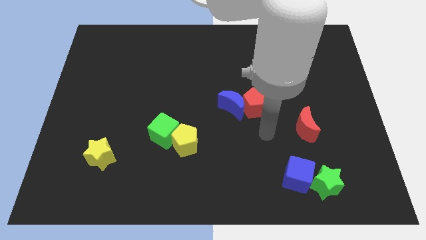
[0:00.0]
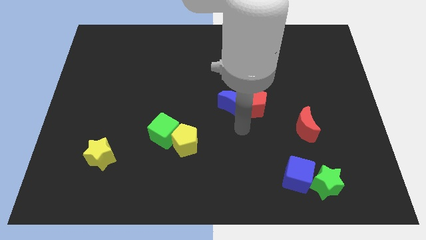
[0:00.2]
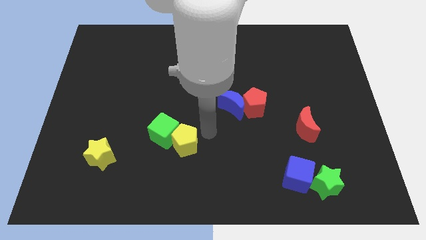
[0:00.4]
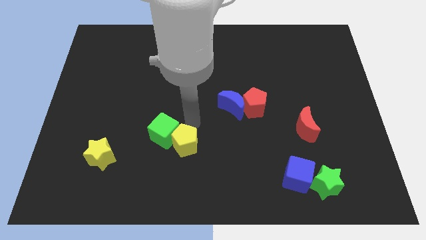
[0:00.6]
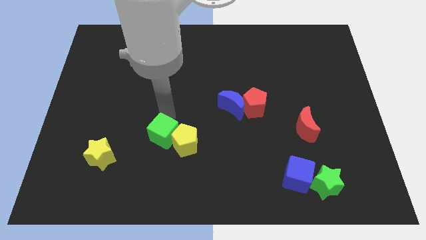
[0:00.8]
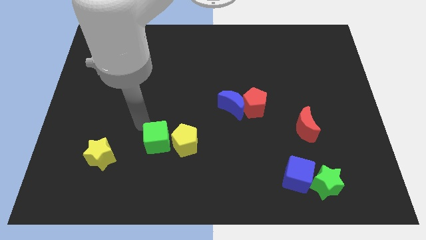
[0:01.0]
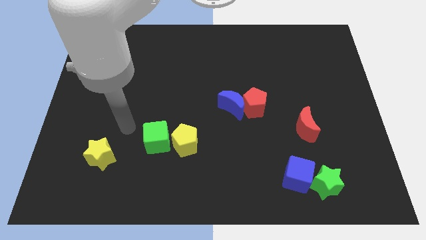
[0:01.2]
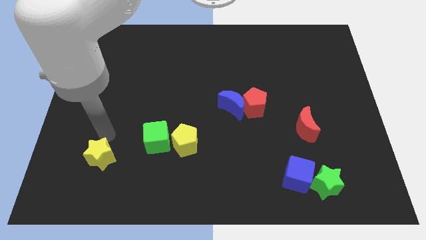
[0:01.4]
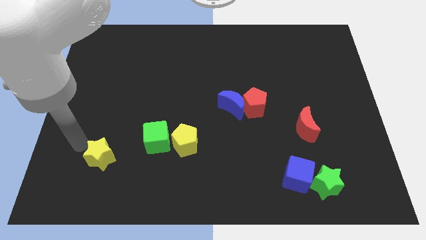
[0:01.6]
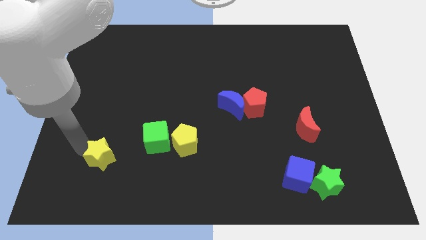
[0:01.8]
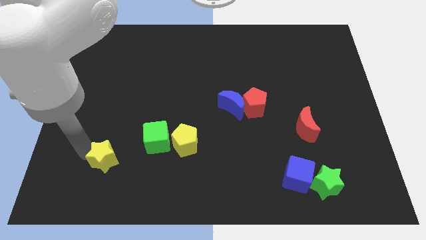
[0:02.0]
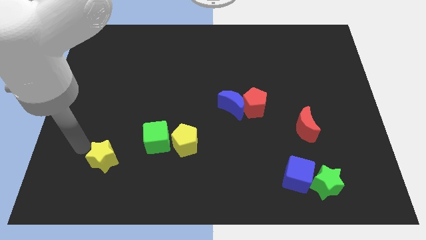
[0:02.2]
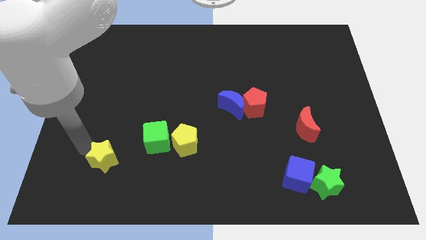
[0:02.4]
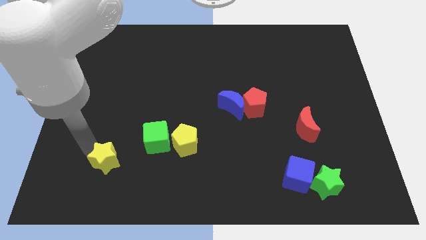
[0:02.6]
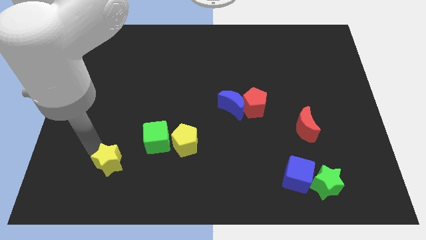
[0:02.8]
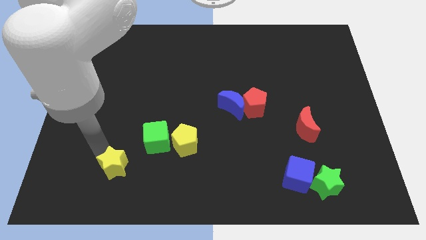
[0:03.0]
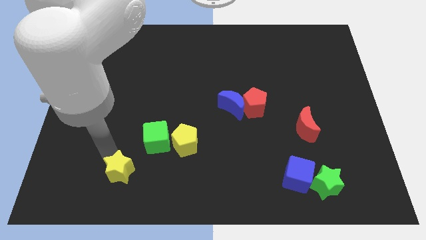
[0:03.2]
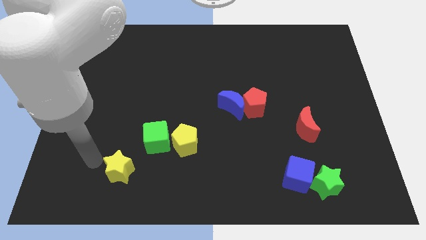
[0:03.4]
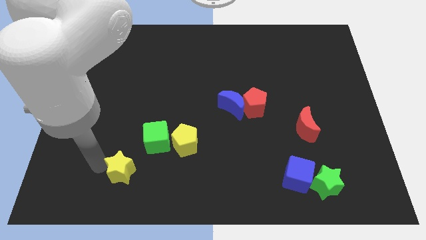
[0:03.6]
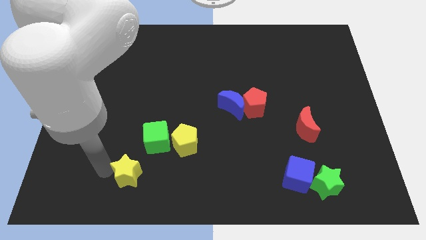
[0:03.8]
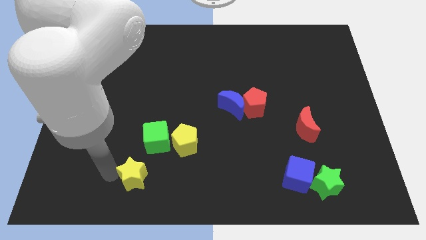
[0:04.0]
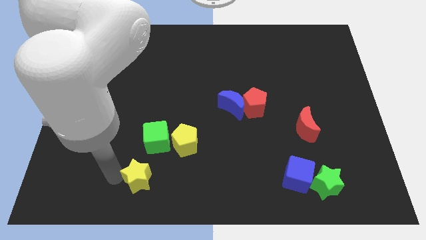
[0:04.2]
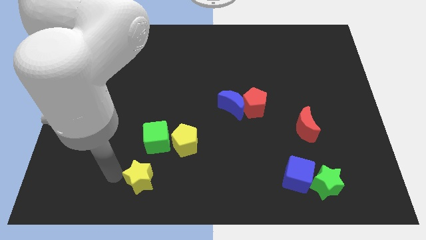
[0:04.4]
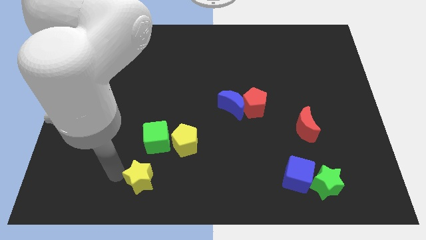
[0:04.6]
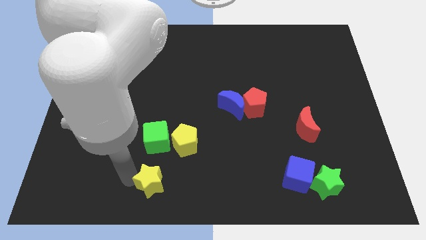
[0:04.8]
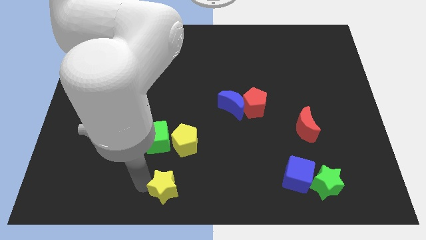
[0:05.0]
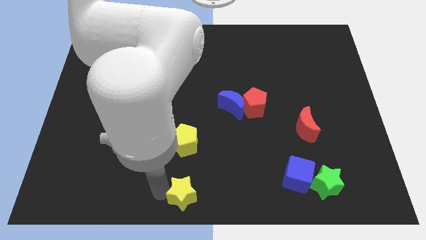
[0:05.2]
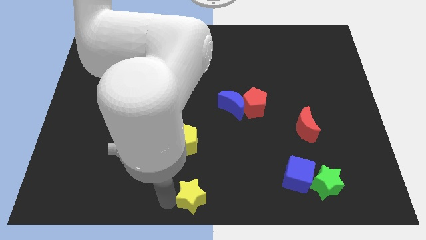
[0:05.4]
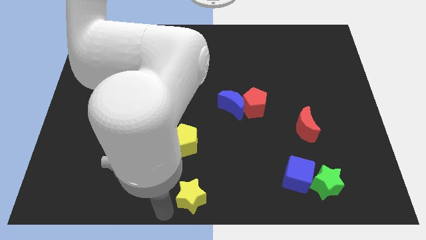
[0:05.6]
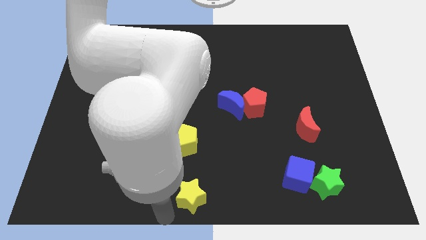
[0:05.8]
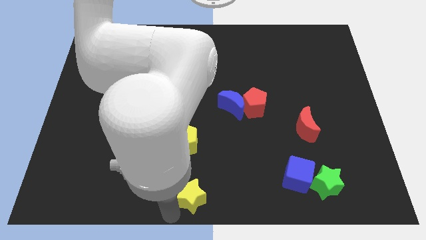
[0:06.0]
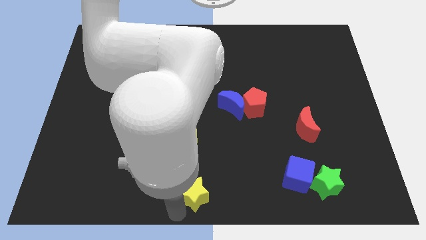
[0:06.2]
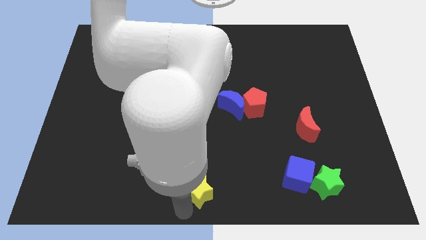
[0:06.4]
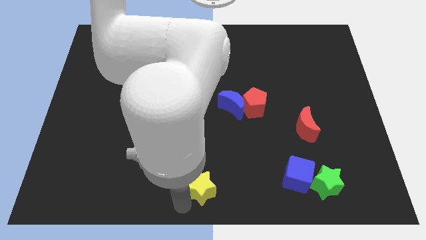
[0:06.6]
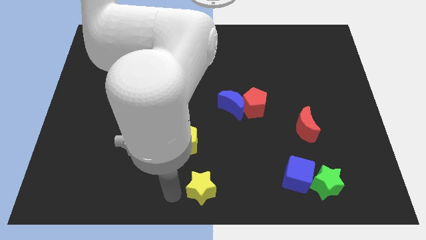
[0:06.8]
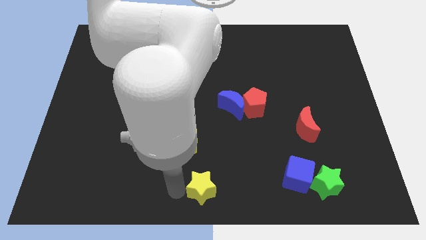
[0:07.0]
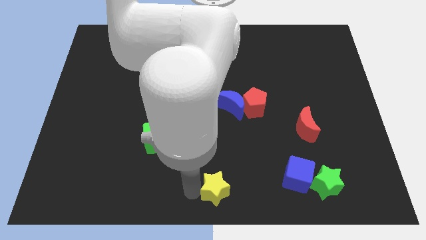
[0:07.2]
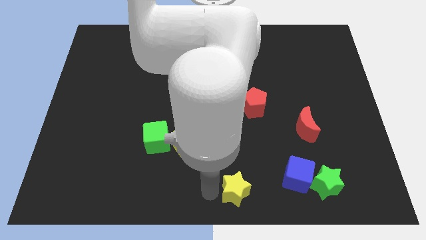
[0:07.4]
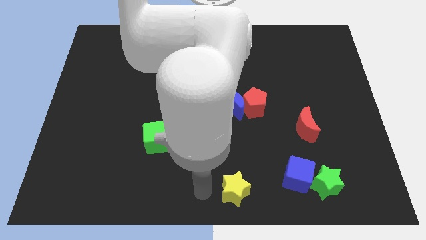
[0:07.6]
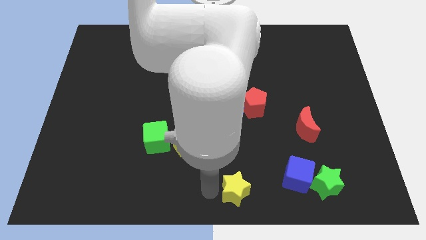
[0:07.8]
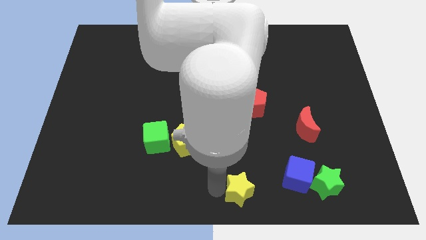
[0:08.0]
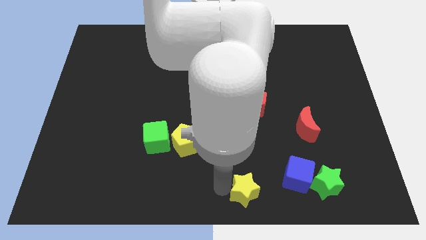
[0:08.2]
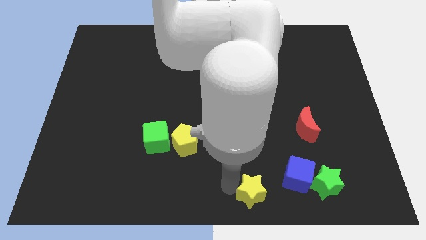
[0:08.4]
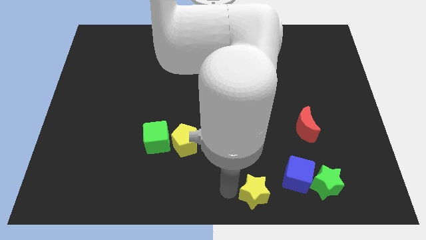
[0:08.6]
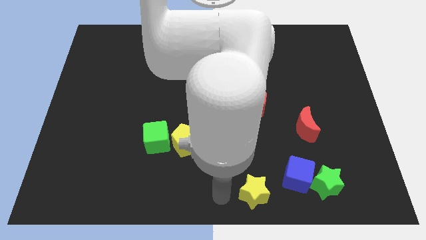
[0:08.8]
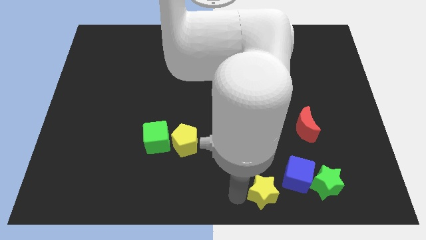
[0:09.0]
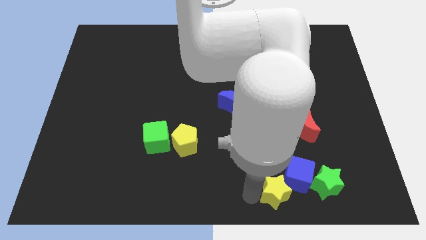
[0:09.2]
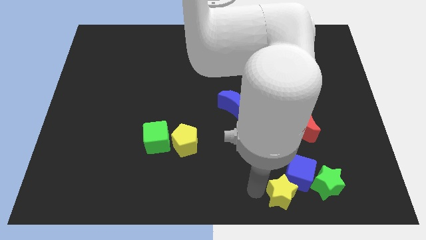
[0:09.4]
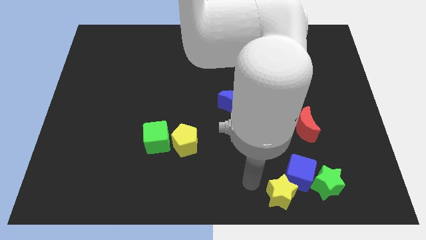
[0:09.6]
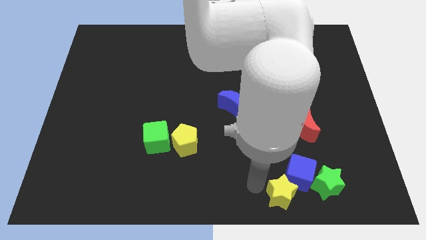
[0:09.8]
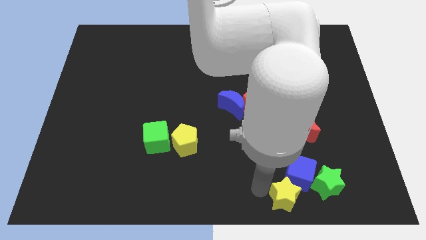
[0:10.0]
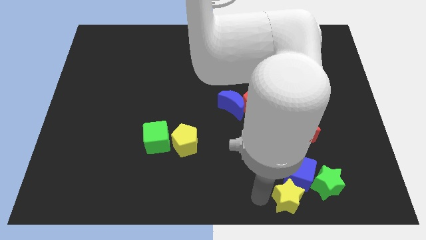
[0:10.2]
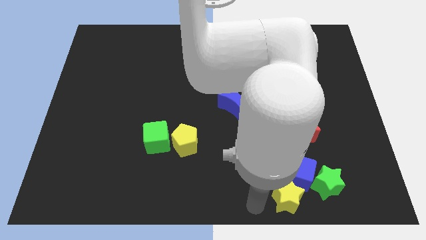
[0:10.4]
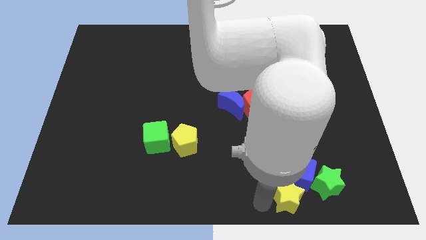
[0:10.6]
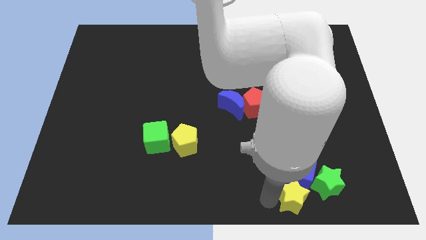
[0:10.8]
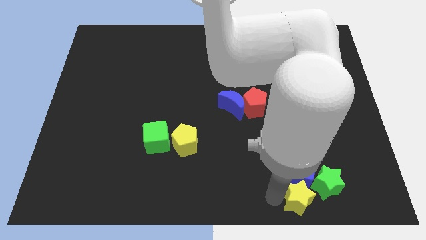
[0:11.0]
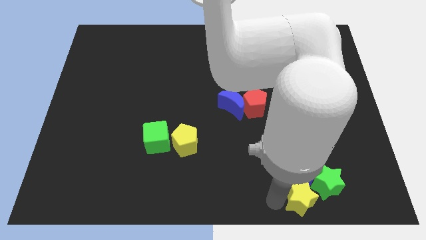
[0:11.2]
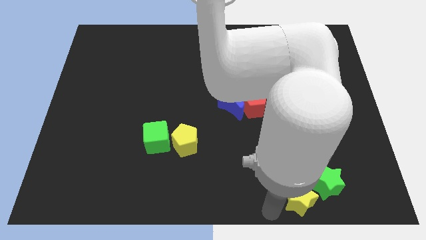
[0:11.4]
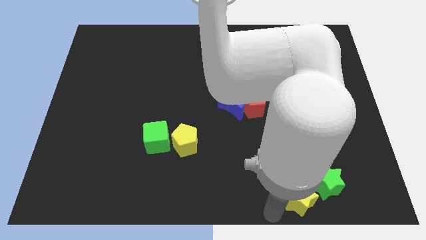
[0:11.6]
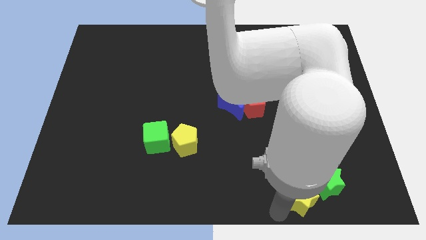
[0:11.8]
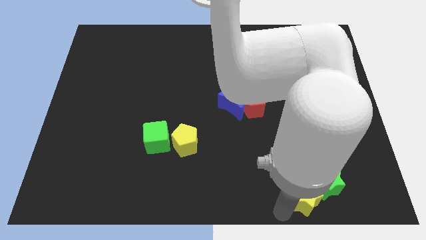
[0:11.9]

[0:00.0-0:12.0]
move the yellow star to the green star
